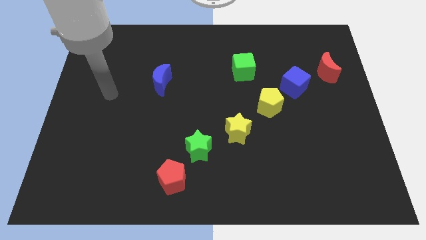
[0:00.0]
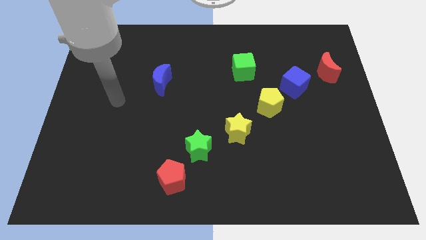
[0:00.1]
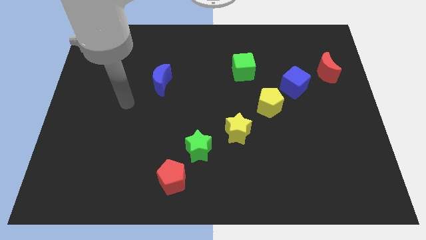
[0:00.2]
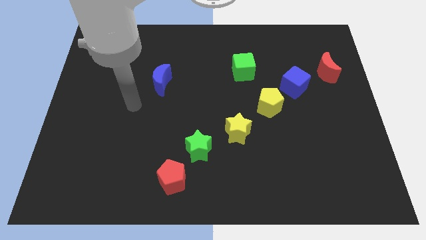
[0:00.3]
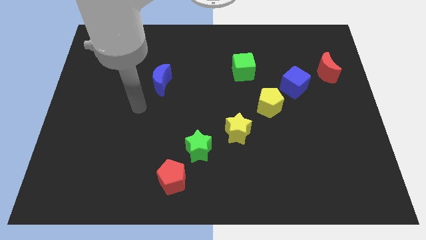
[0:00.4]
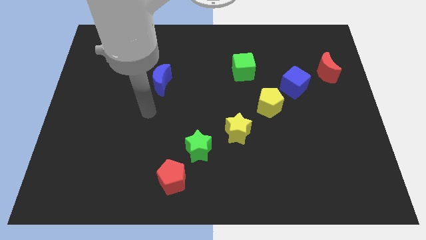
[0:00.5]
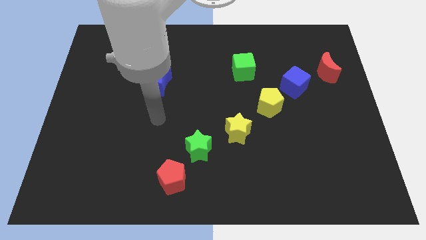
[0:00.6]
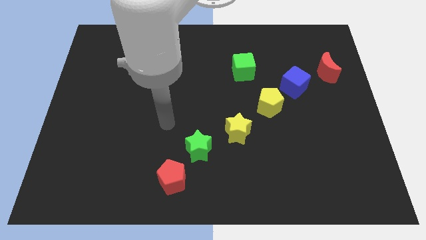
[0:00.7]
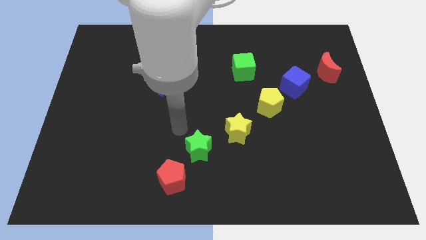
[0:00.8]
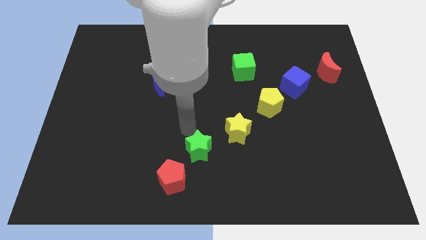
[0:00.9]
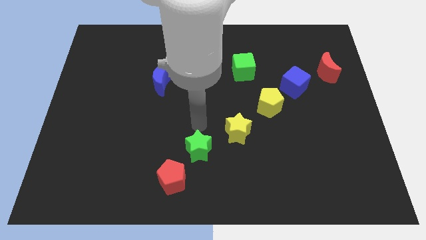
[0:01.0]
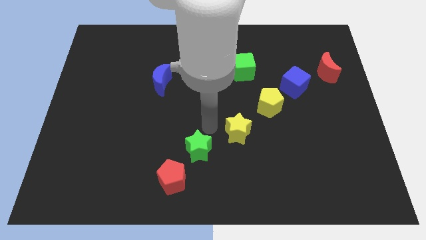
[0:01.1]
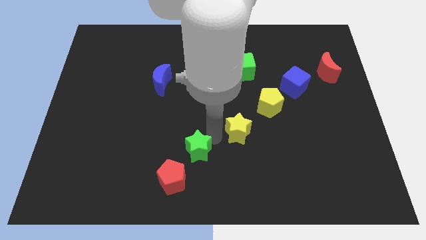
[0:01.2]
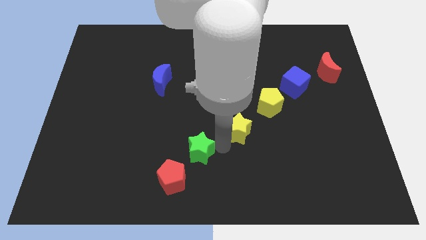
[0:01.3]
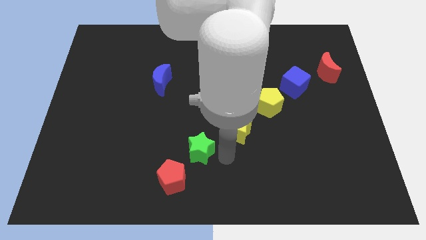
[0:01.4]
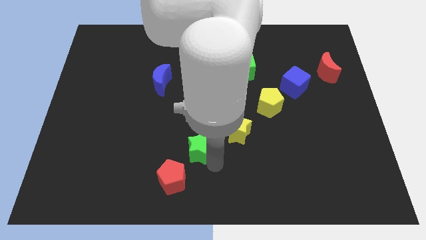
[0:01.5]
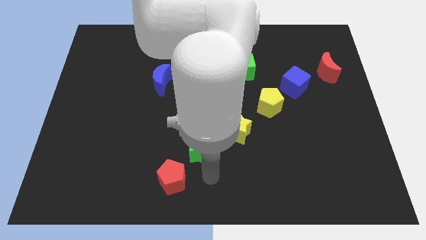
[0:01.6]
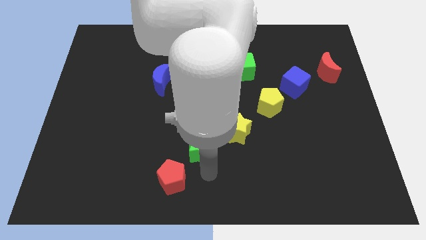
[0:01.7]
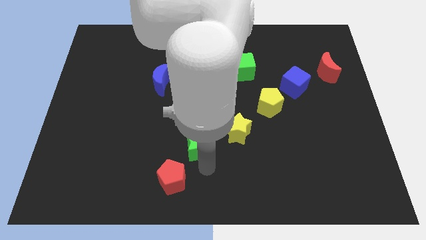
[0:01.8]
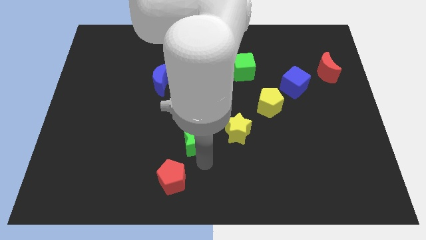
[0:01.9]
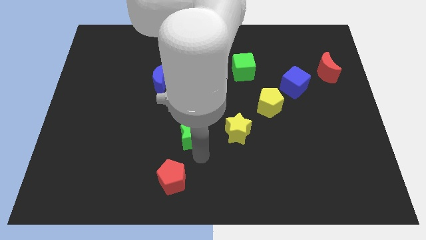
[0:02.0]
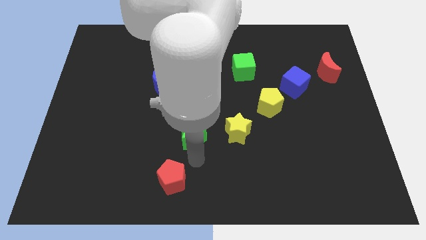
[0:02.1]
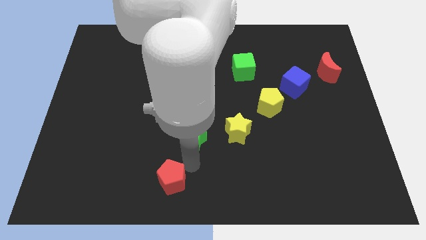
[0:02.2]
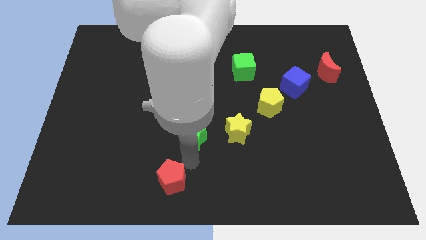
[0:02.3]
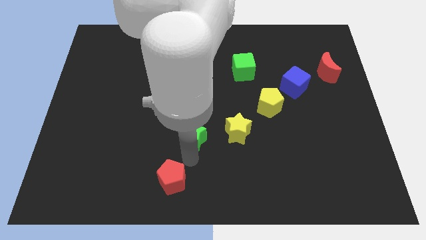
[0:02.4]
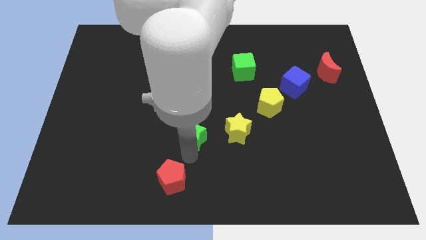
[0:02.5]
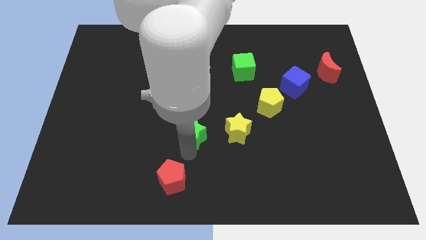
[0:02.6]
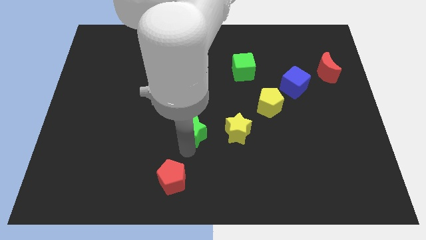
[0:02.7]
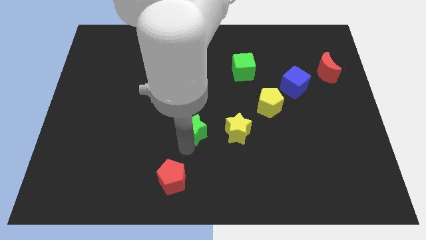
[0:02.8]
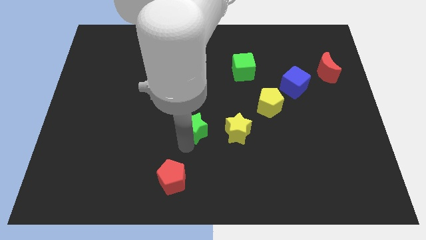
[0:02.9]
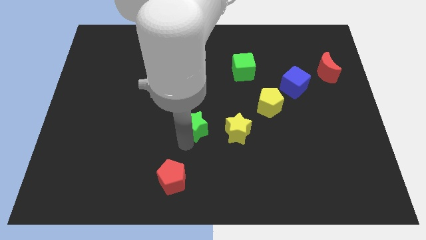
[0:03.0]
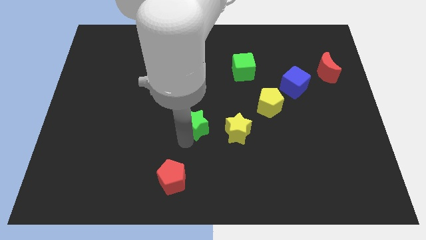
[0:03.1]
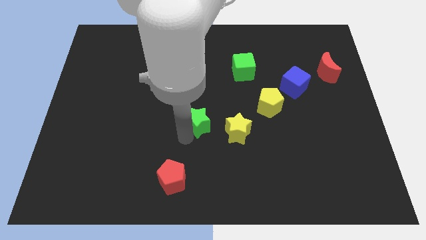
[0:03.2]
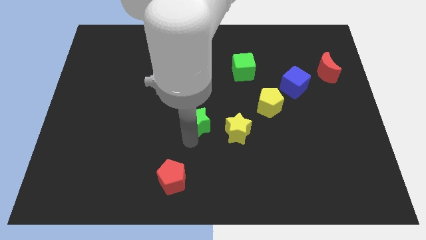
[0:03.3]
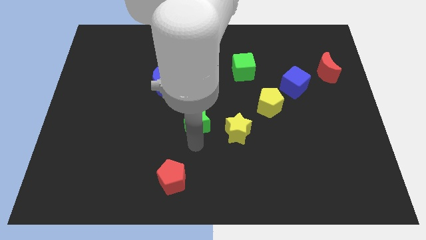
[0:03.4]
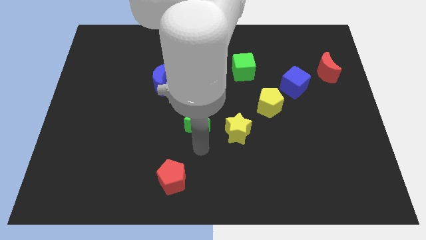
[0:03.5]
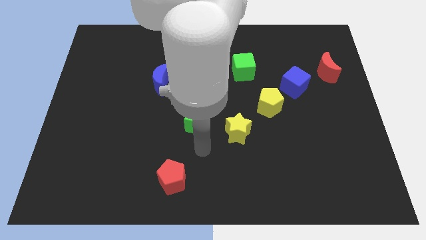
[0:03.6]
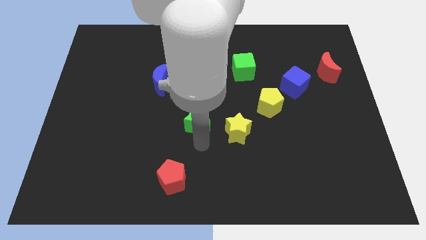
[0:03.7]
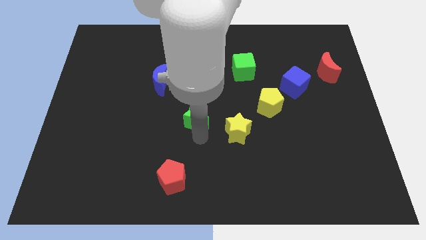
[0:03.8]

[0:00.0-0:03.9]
slightly slide the green star upwards

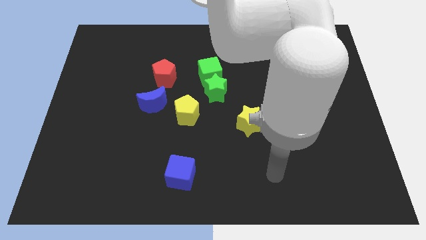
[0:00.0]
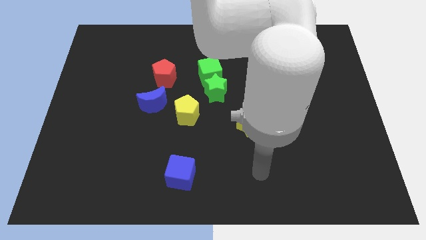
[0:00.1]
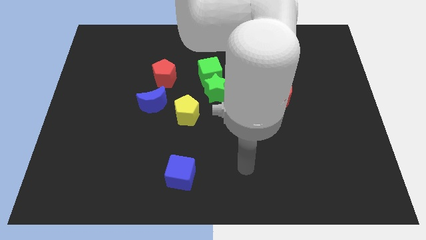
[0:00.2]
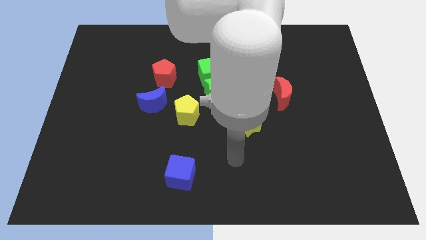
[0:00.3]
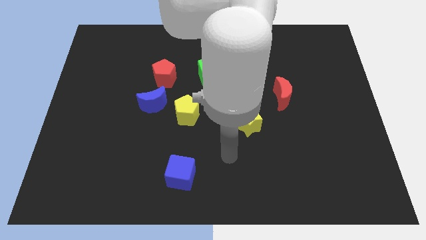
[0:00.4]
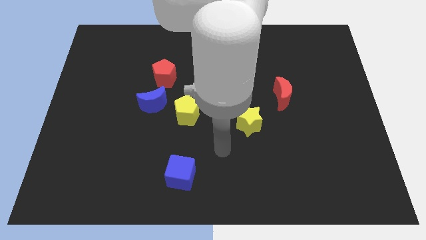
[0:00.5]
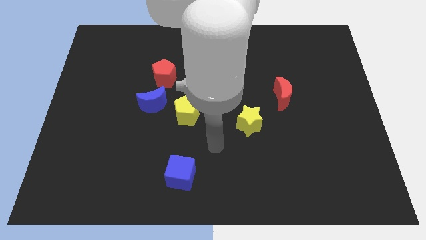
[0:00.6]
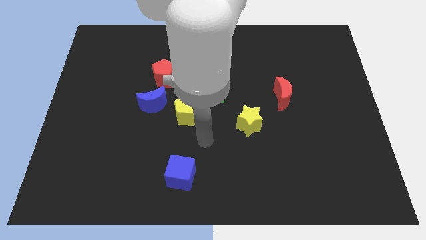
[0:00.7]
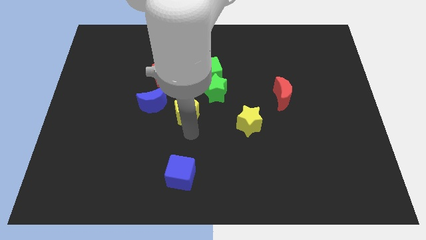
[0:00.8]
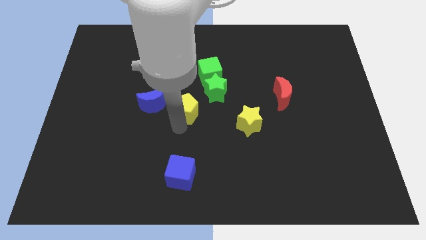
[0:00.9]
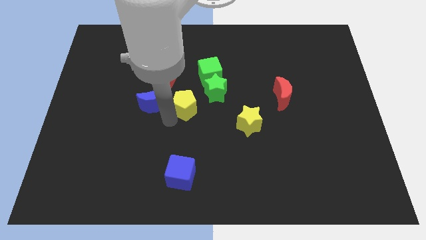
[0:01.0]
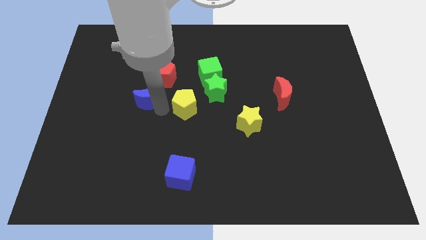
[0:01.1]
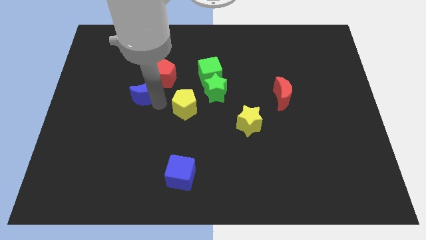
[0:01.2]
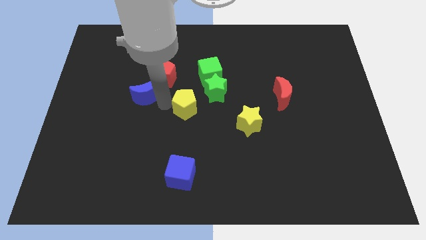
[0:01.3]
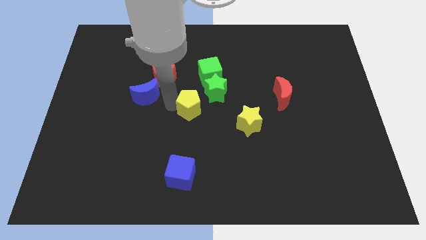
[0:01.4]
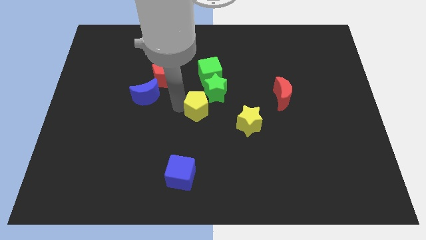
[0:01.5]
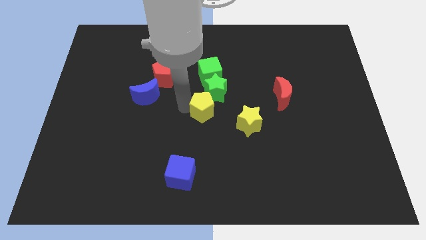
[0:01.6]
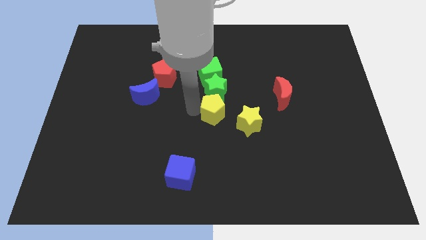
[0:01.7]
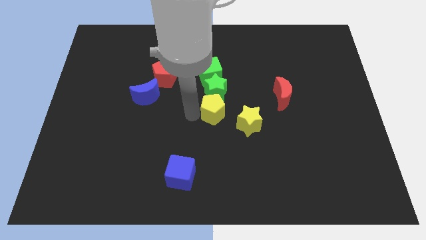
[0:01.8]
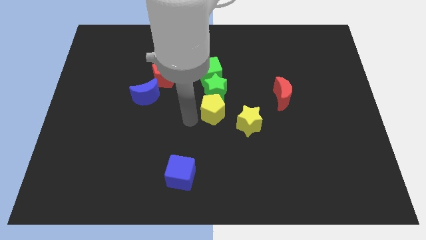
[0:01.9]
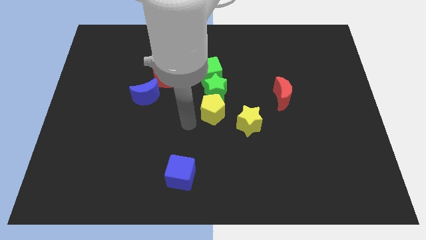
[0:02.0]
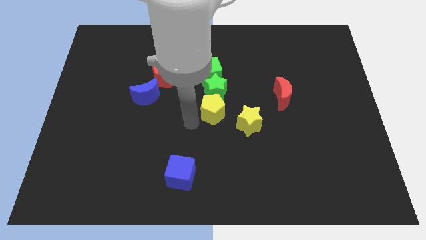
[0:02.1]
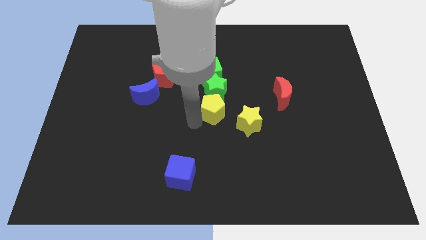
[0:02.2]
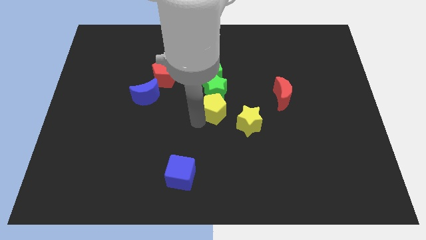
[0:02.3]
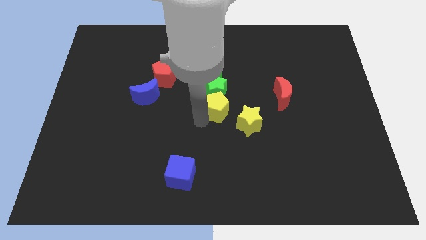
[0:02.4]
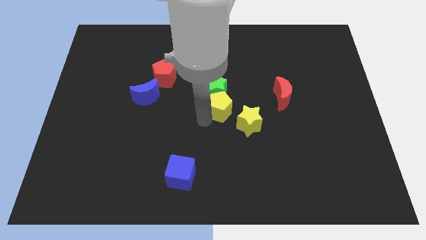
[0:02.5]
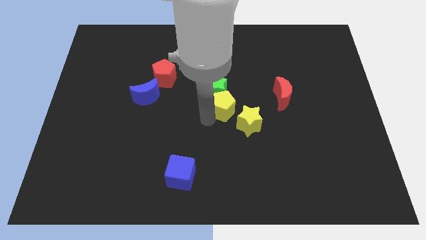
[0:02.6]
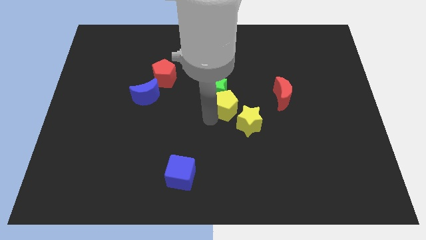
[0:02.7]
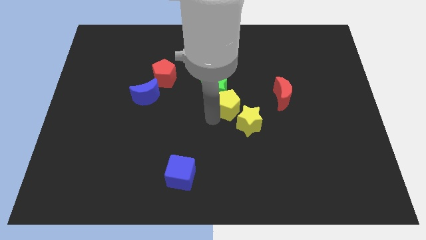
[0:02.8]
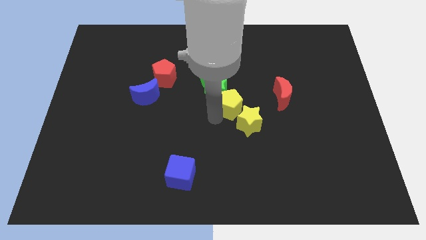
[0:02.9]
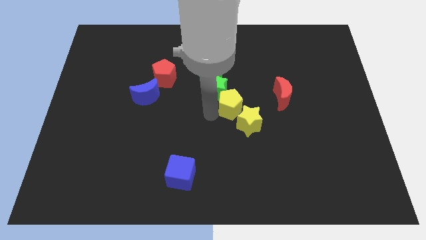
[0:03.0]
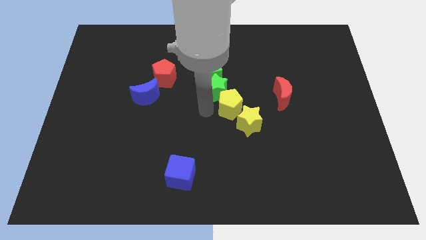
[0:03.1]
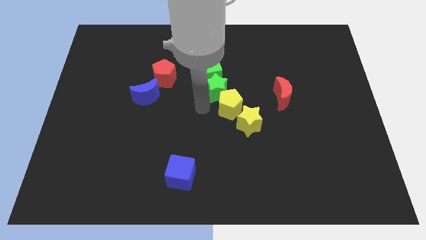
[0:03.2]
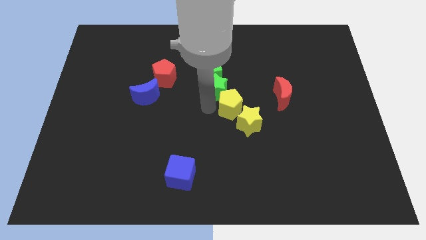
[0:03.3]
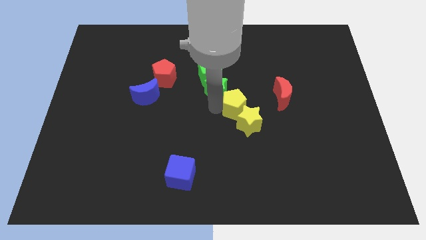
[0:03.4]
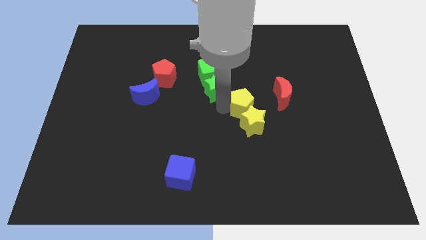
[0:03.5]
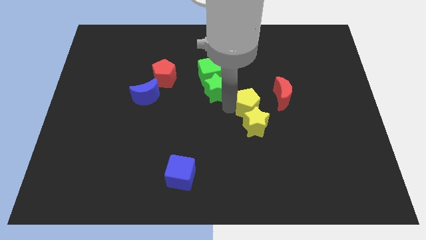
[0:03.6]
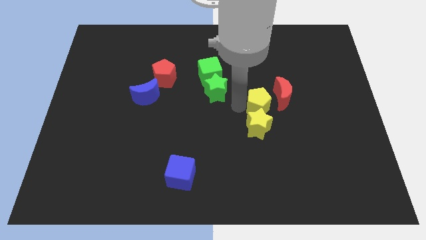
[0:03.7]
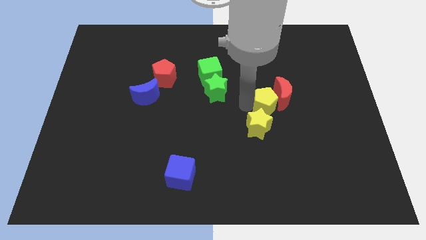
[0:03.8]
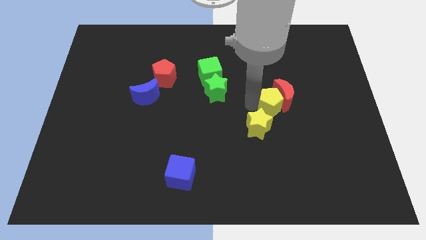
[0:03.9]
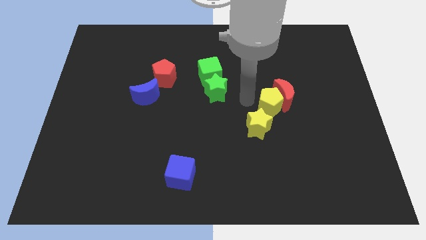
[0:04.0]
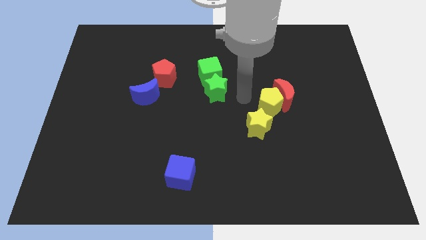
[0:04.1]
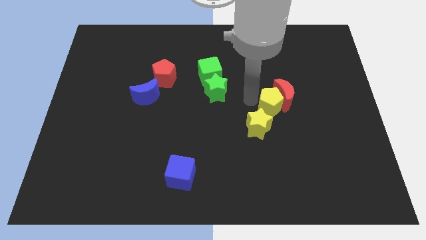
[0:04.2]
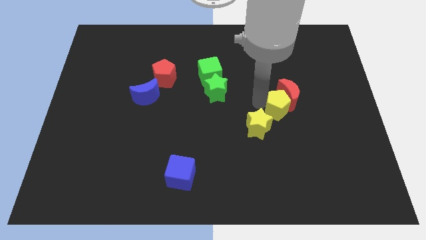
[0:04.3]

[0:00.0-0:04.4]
slide the yellow pentagon right

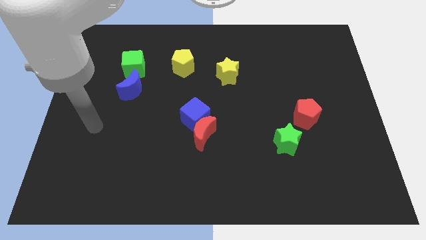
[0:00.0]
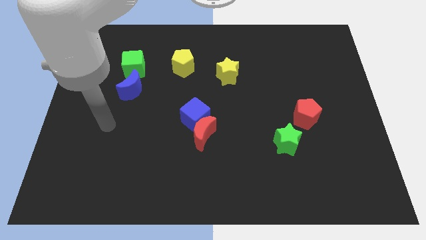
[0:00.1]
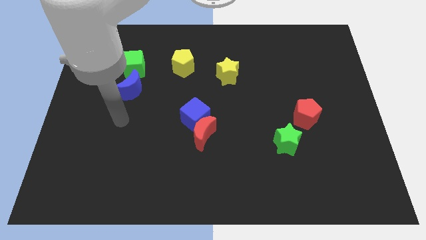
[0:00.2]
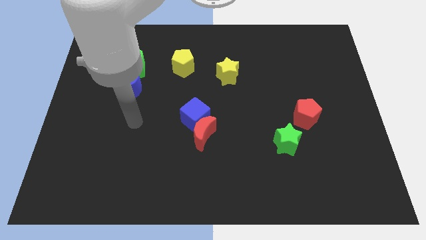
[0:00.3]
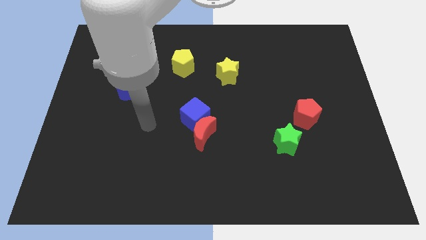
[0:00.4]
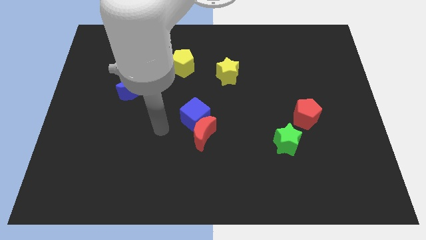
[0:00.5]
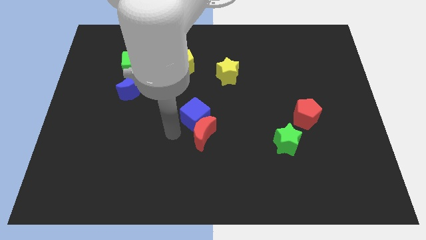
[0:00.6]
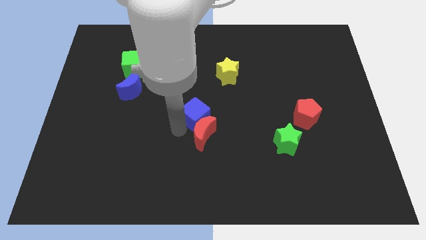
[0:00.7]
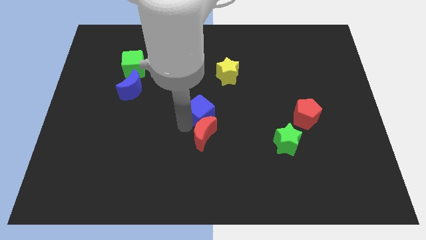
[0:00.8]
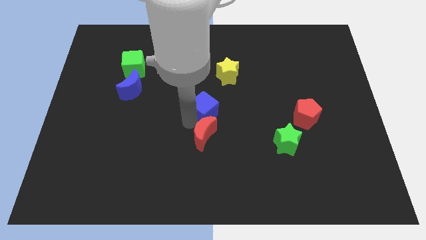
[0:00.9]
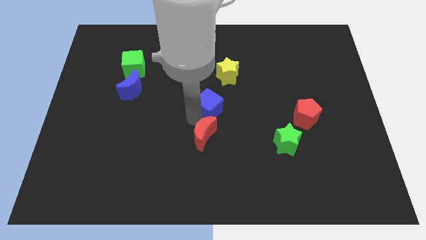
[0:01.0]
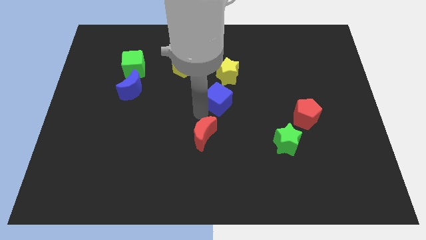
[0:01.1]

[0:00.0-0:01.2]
slightly push the blue cube upwards and then right
